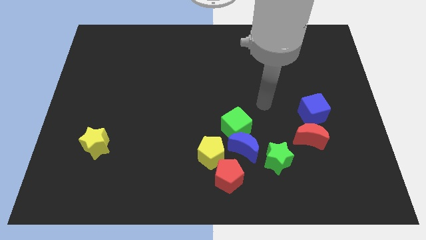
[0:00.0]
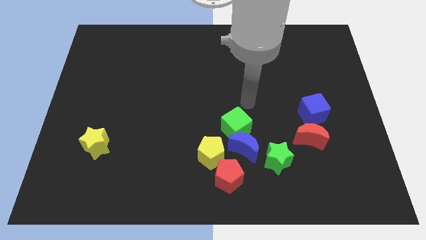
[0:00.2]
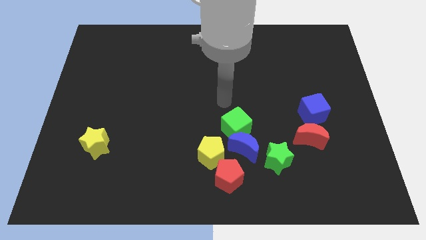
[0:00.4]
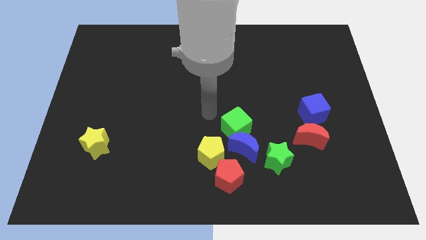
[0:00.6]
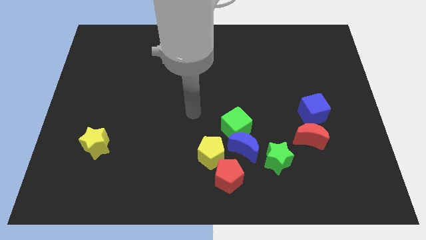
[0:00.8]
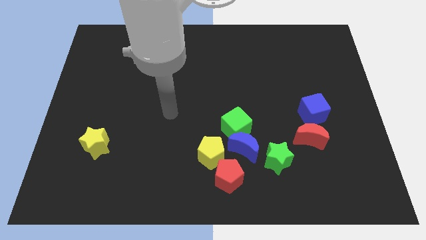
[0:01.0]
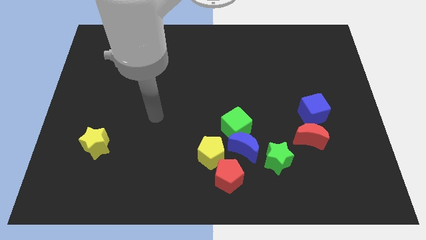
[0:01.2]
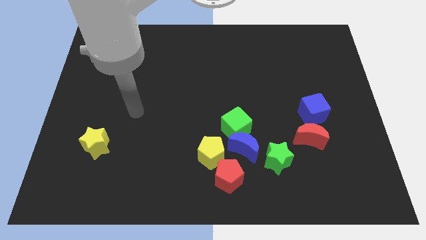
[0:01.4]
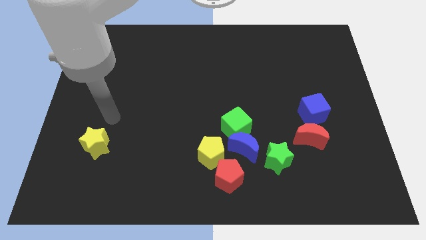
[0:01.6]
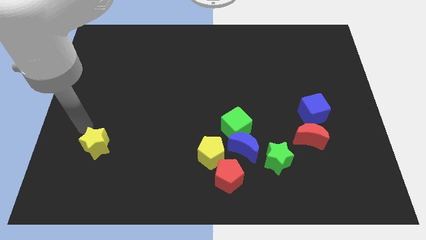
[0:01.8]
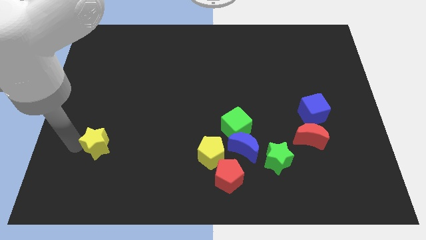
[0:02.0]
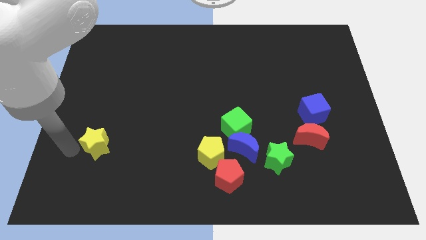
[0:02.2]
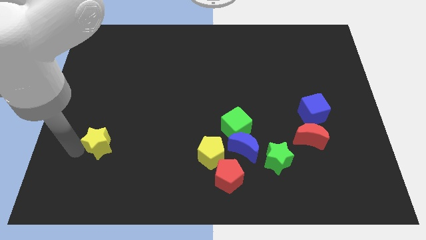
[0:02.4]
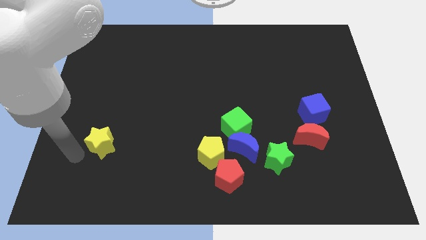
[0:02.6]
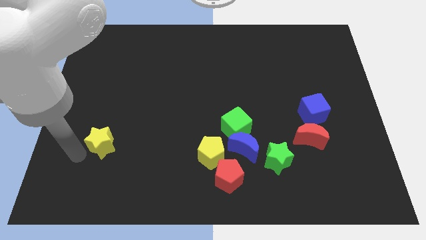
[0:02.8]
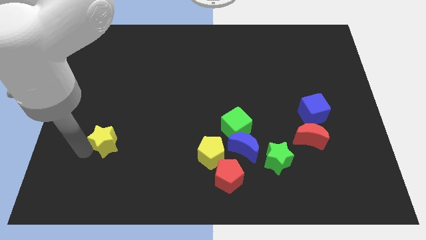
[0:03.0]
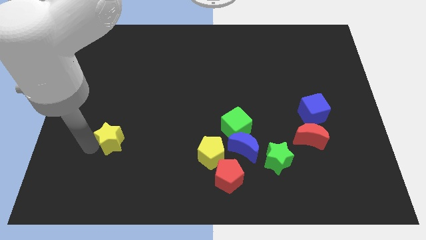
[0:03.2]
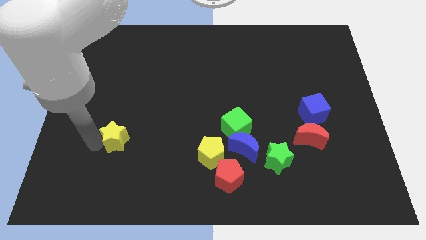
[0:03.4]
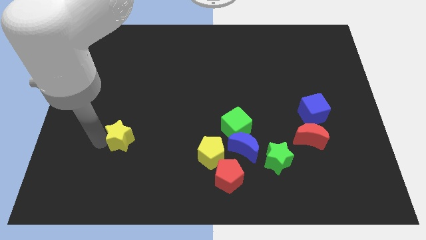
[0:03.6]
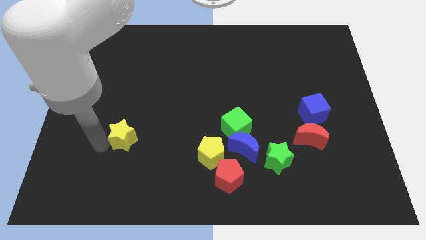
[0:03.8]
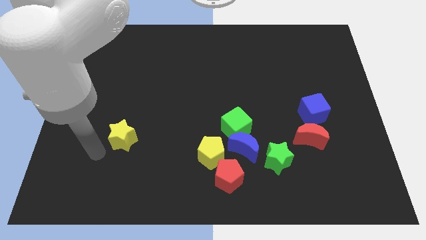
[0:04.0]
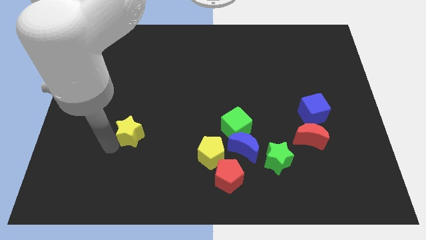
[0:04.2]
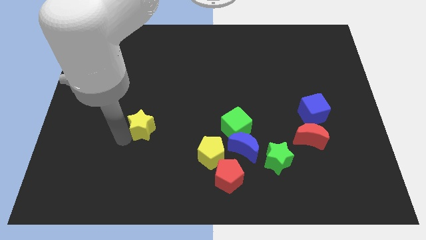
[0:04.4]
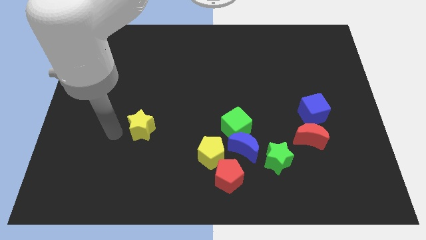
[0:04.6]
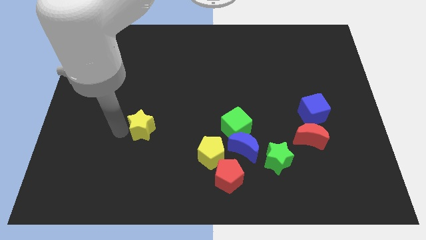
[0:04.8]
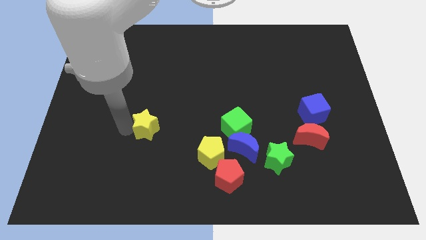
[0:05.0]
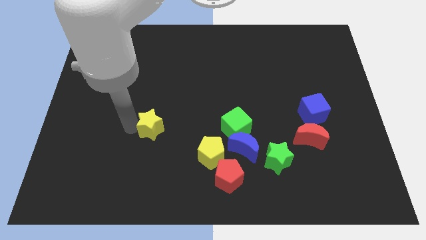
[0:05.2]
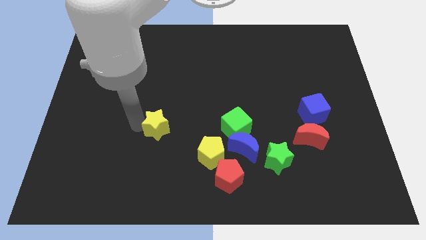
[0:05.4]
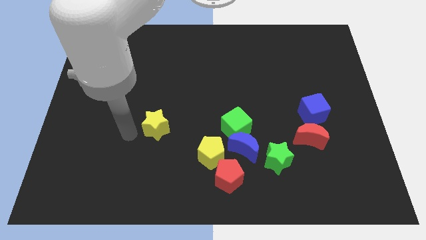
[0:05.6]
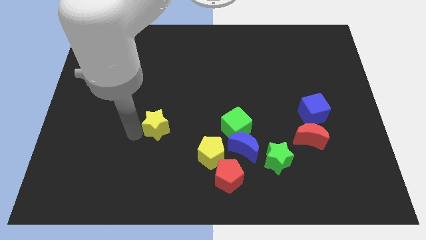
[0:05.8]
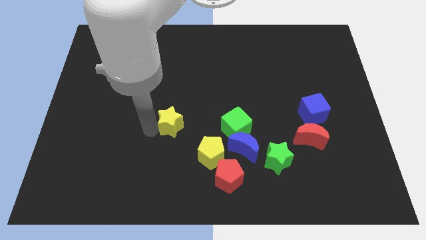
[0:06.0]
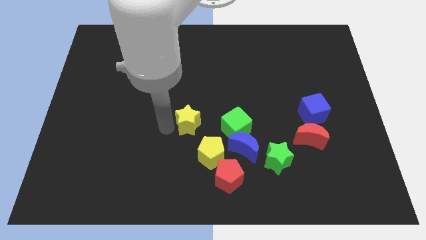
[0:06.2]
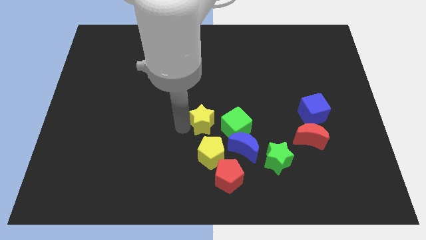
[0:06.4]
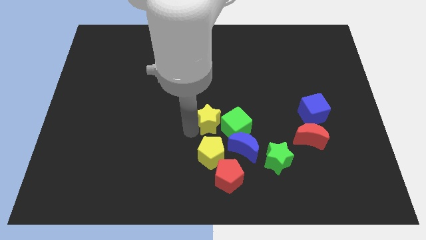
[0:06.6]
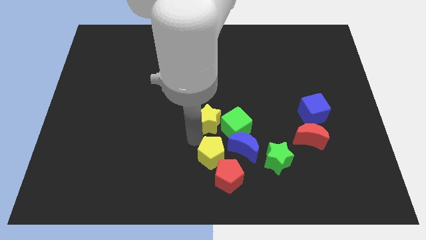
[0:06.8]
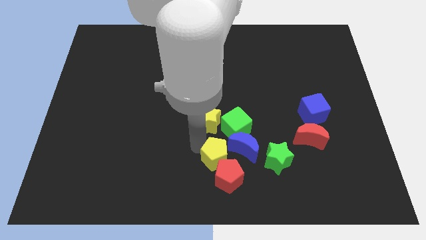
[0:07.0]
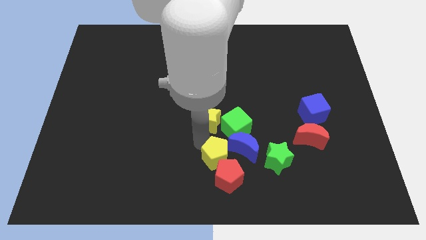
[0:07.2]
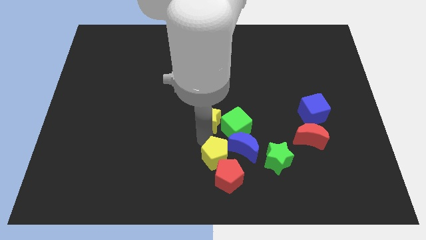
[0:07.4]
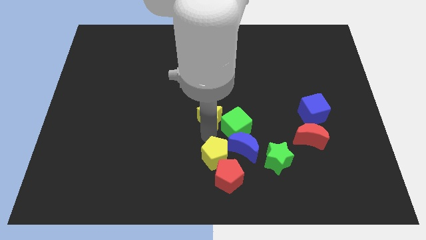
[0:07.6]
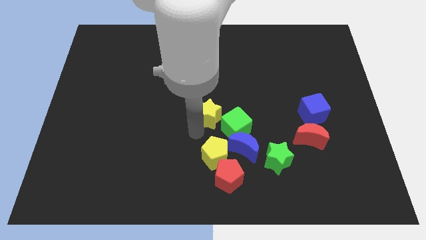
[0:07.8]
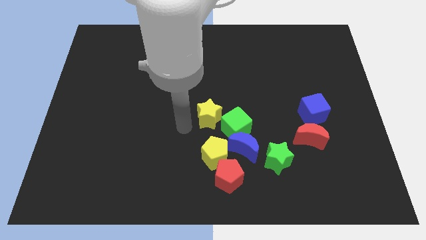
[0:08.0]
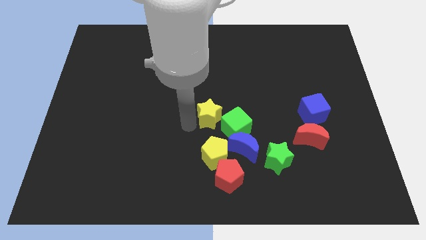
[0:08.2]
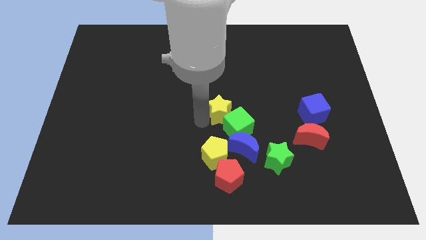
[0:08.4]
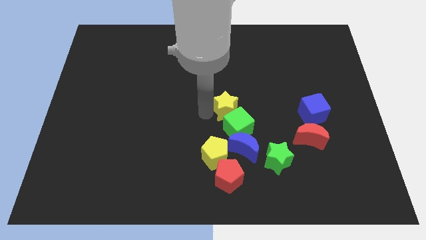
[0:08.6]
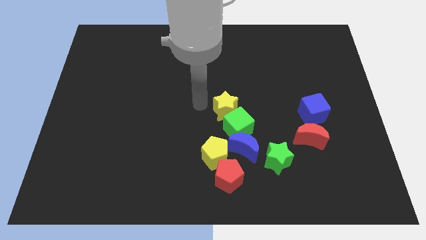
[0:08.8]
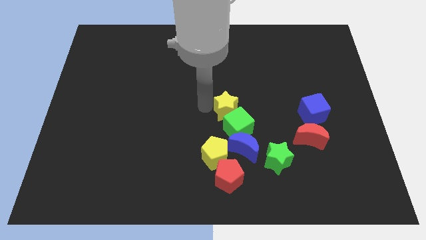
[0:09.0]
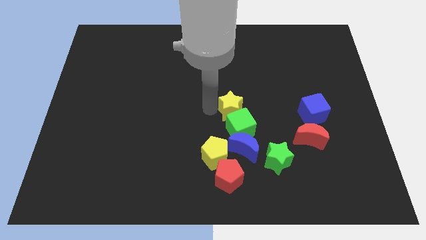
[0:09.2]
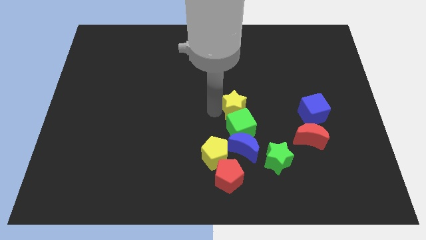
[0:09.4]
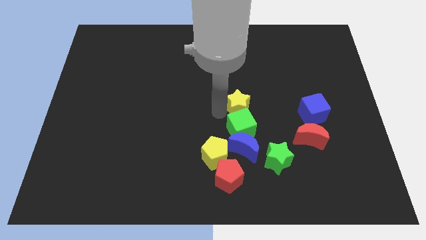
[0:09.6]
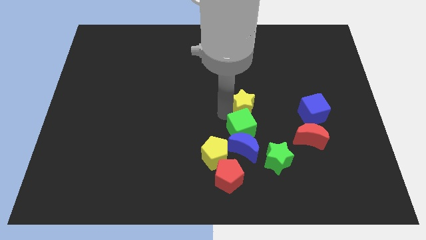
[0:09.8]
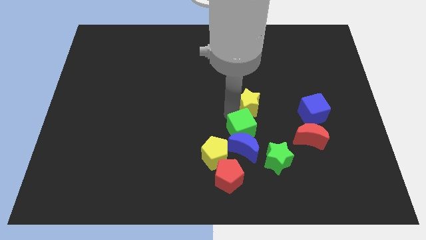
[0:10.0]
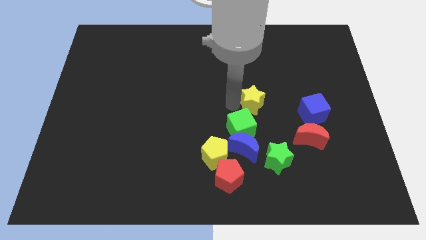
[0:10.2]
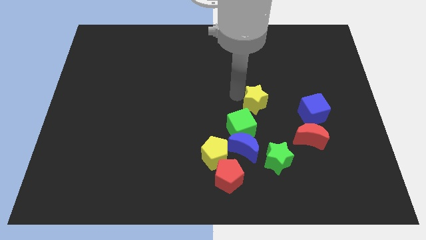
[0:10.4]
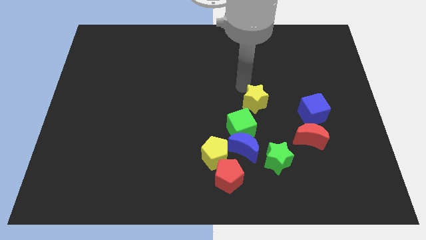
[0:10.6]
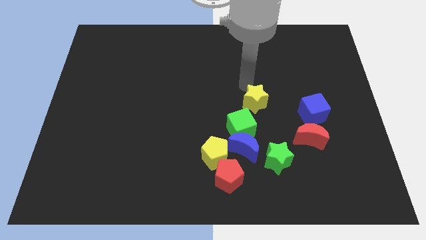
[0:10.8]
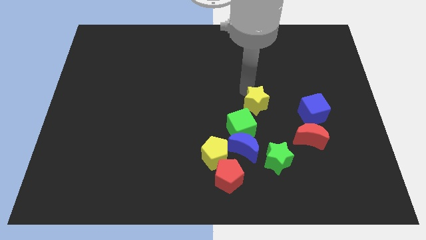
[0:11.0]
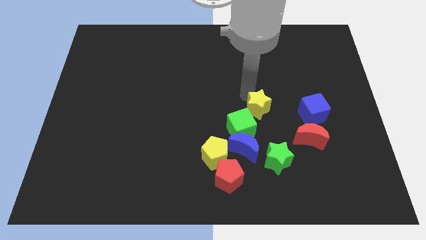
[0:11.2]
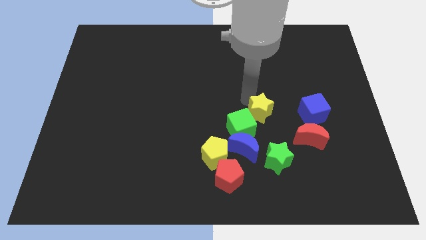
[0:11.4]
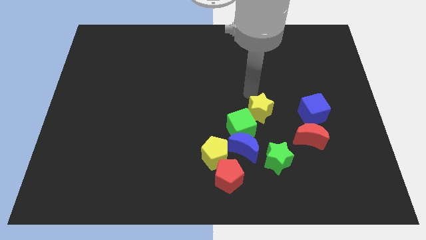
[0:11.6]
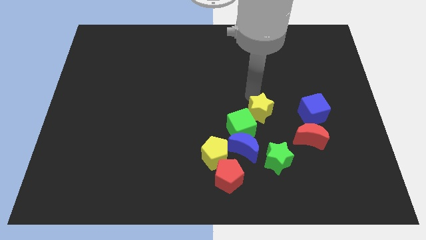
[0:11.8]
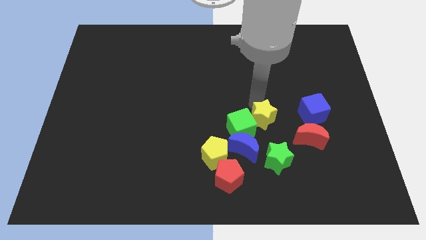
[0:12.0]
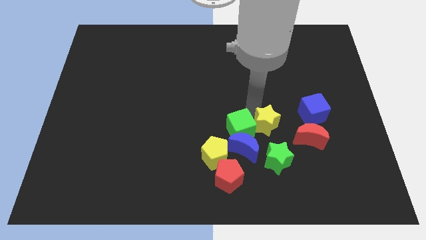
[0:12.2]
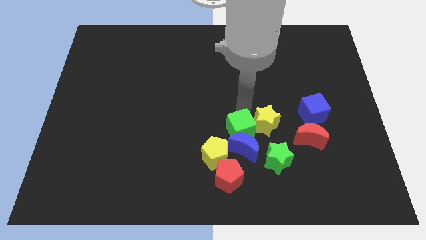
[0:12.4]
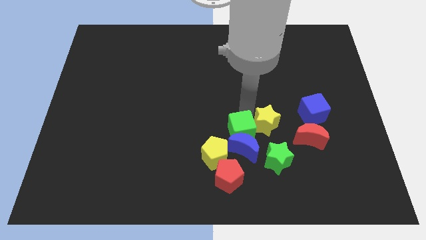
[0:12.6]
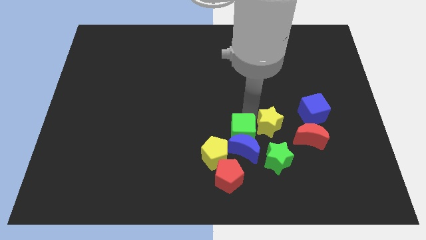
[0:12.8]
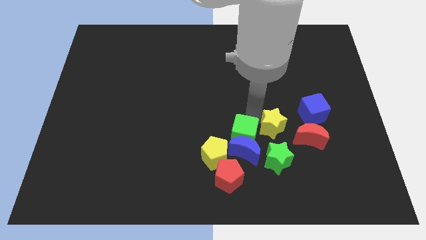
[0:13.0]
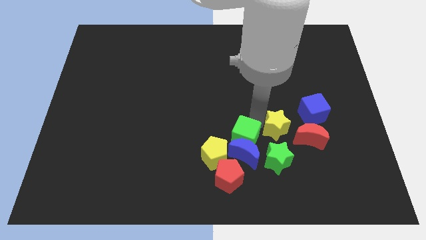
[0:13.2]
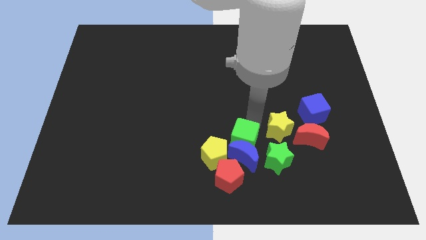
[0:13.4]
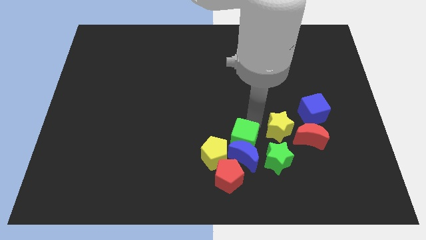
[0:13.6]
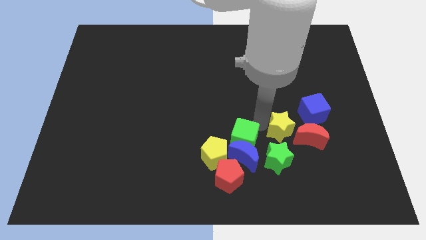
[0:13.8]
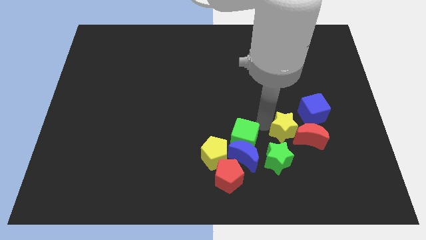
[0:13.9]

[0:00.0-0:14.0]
move the yellow star towards the red moon

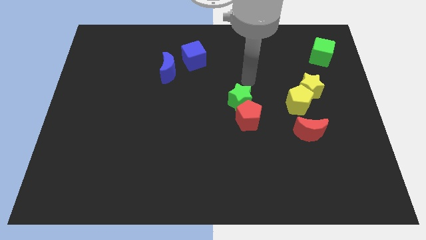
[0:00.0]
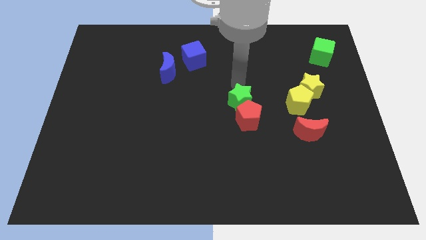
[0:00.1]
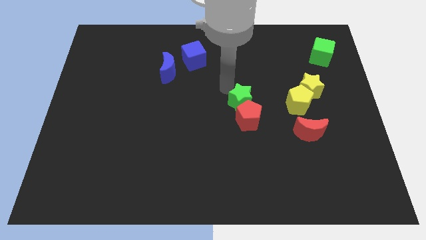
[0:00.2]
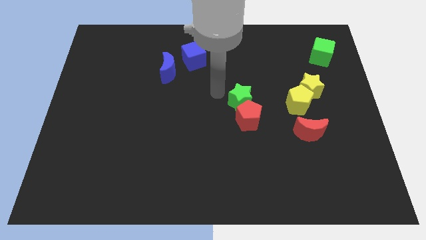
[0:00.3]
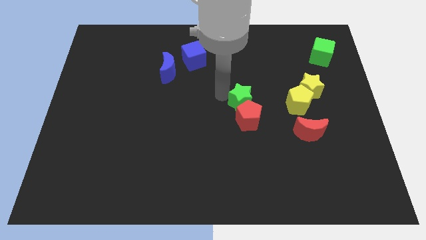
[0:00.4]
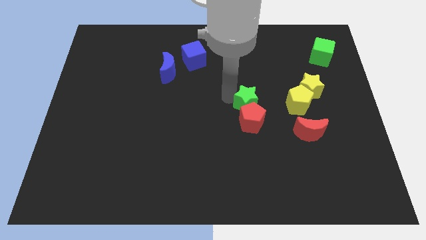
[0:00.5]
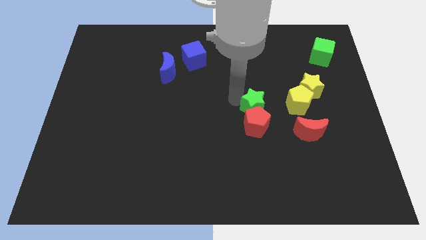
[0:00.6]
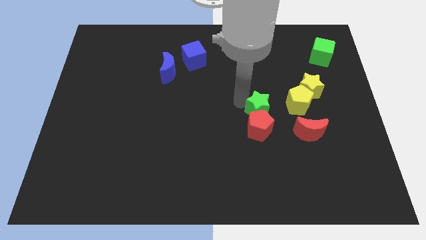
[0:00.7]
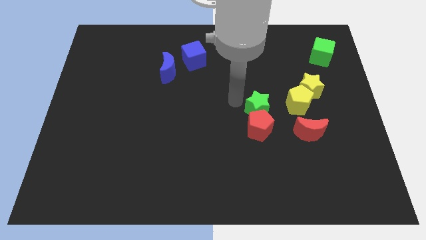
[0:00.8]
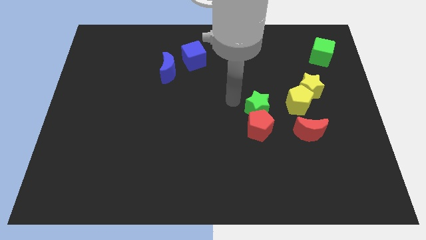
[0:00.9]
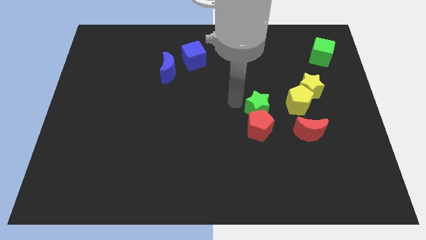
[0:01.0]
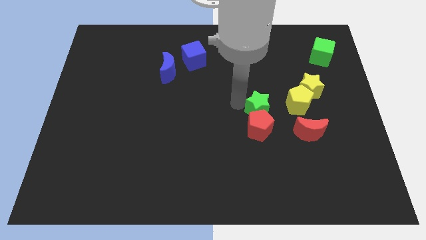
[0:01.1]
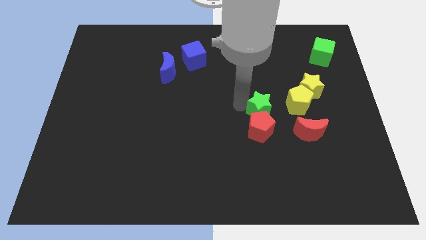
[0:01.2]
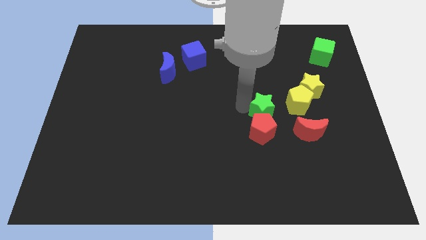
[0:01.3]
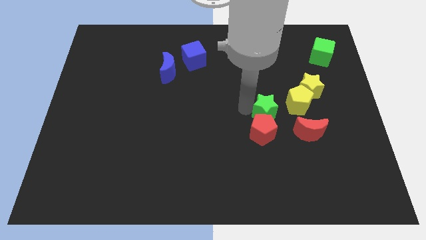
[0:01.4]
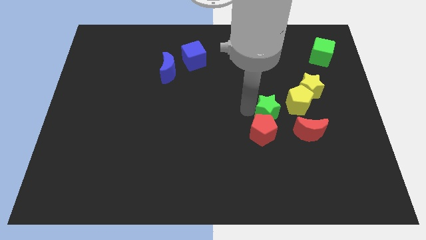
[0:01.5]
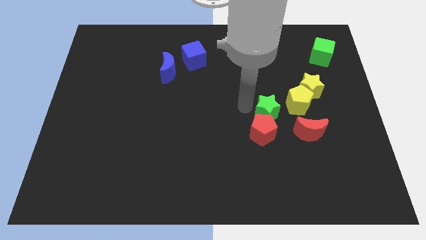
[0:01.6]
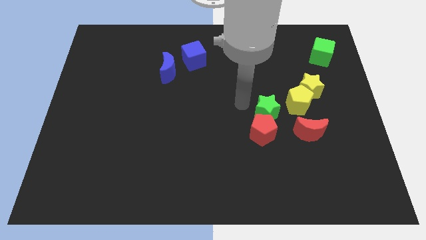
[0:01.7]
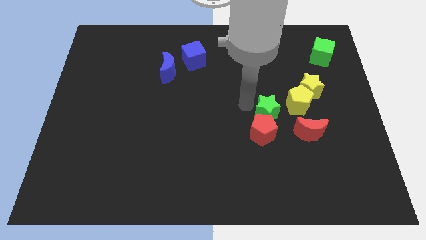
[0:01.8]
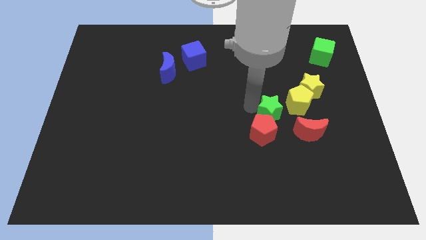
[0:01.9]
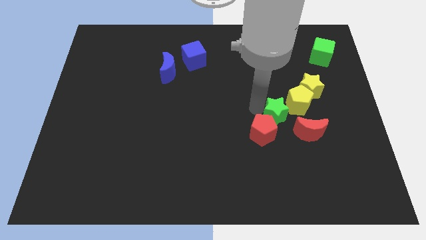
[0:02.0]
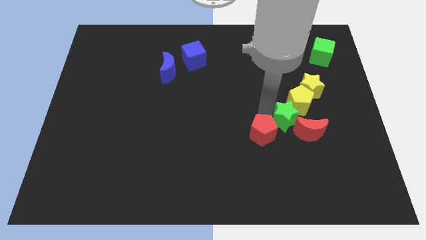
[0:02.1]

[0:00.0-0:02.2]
push the green star towards the red moon
